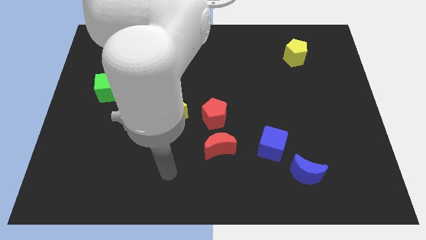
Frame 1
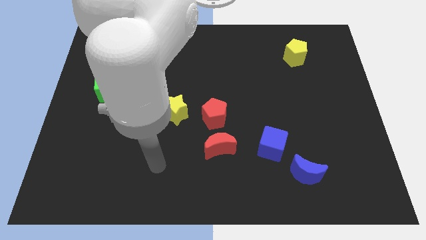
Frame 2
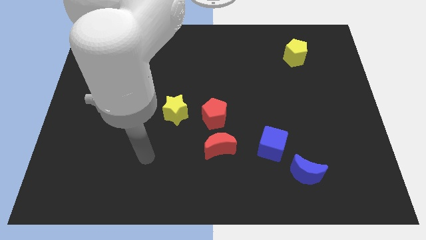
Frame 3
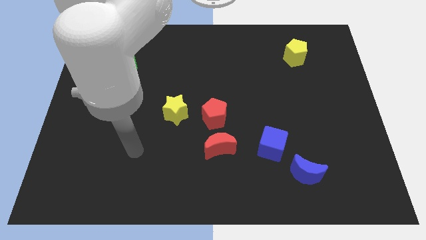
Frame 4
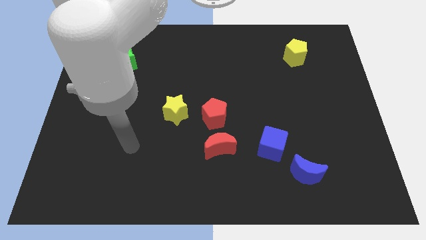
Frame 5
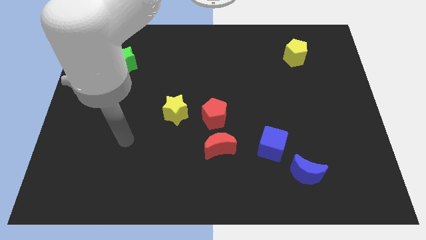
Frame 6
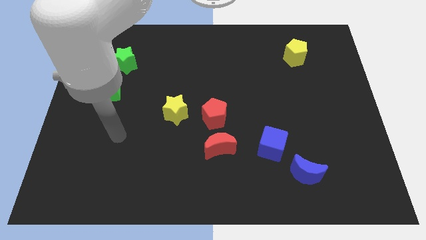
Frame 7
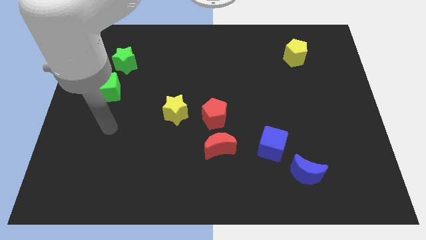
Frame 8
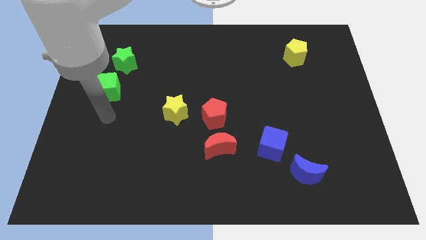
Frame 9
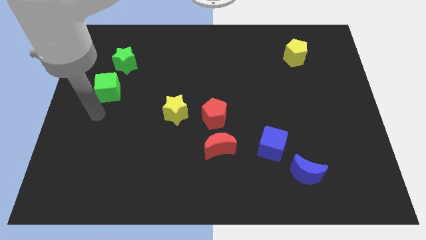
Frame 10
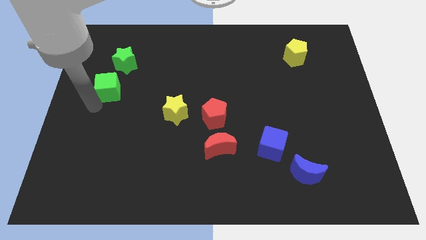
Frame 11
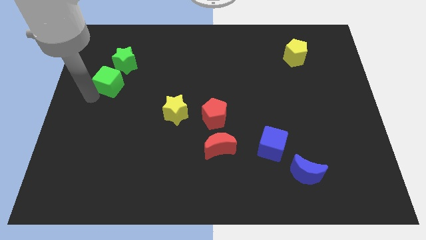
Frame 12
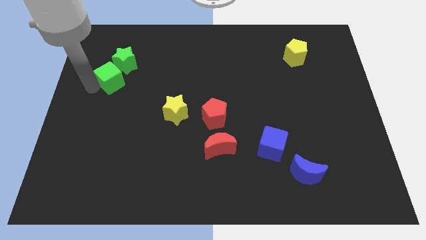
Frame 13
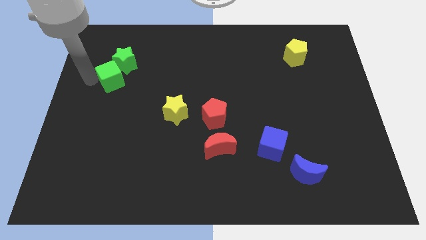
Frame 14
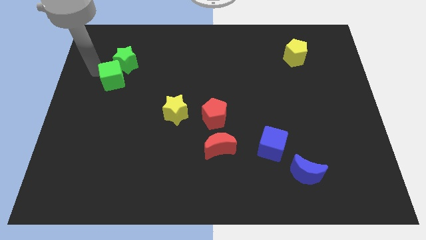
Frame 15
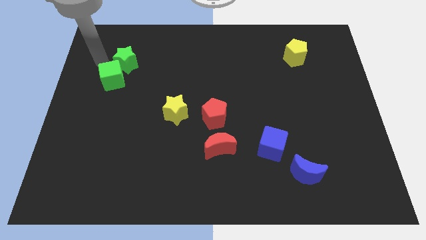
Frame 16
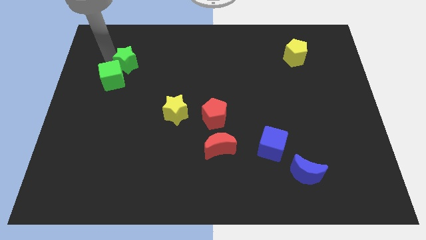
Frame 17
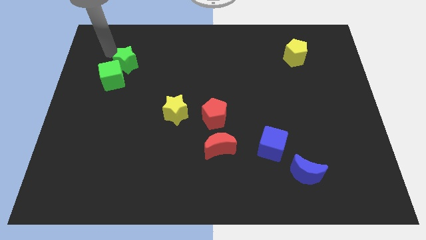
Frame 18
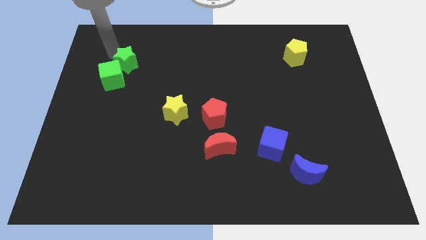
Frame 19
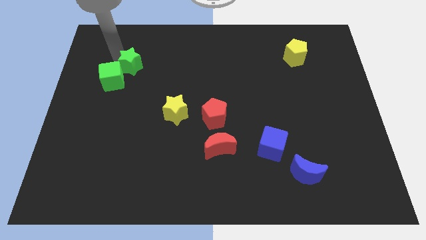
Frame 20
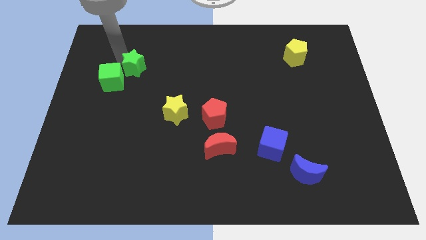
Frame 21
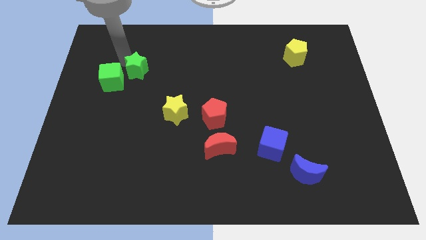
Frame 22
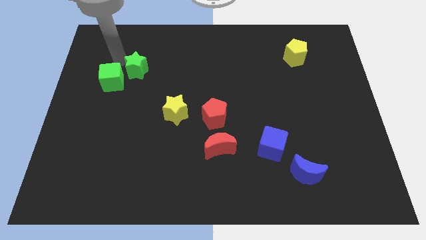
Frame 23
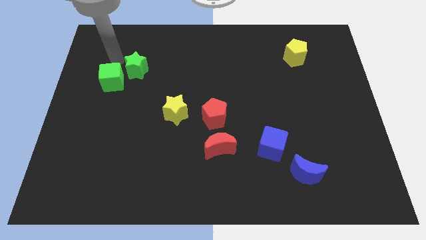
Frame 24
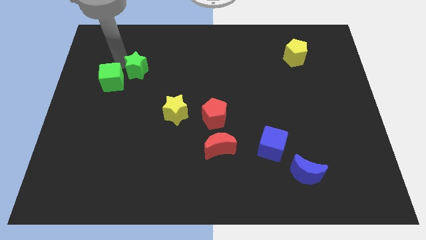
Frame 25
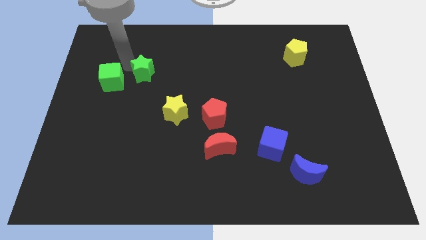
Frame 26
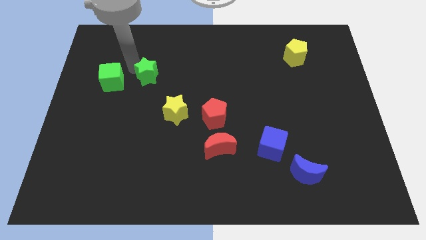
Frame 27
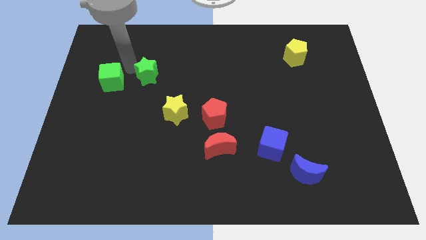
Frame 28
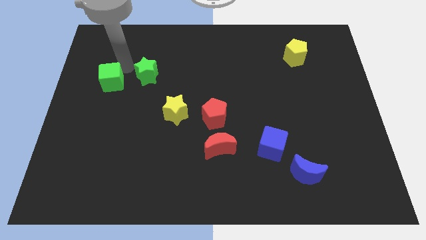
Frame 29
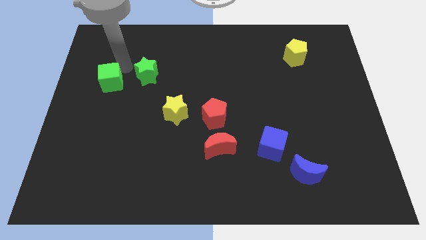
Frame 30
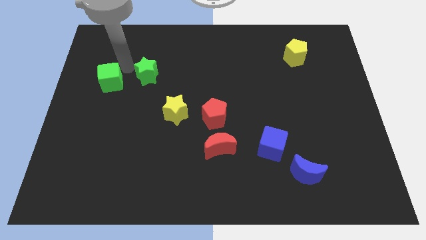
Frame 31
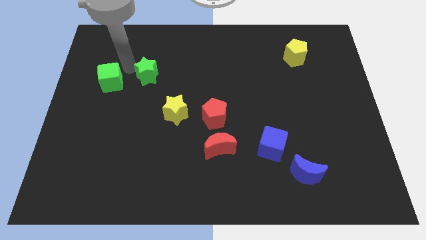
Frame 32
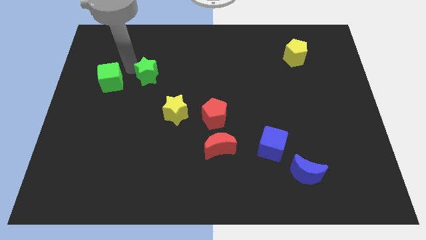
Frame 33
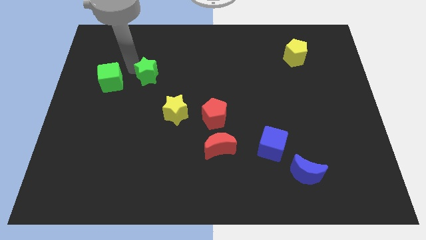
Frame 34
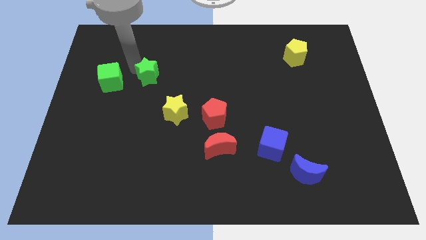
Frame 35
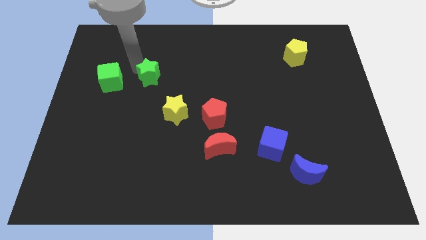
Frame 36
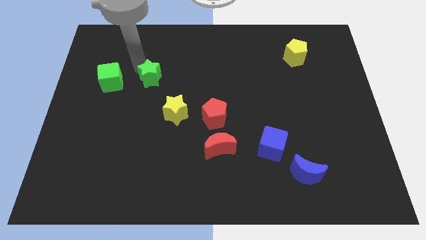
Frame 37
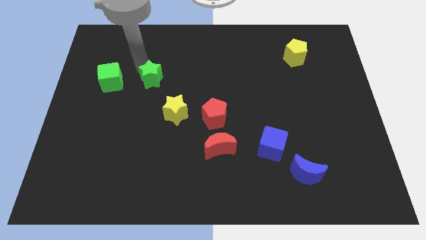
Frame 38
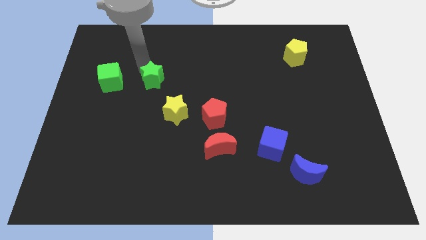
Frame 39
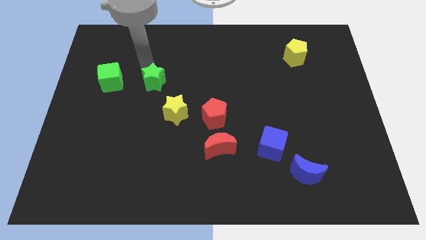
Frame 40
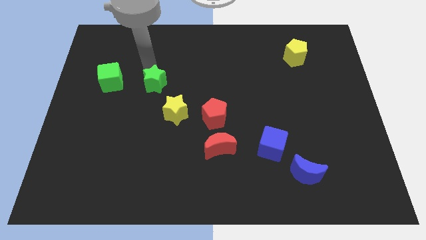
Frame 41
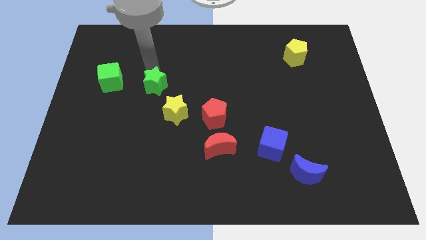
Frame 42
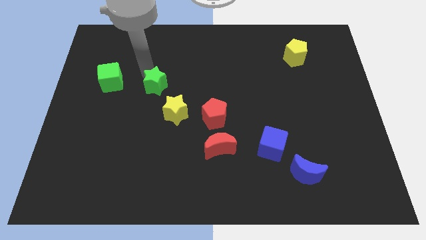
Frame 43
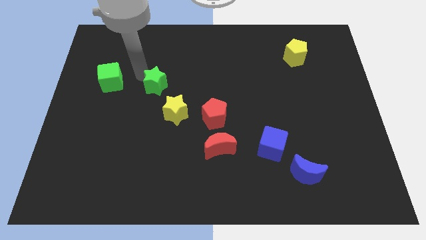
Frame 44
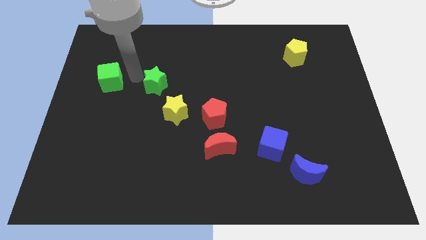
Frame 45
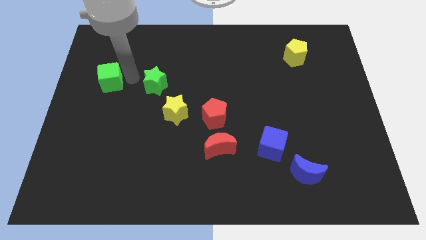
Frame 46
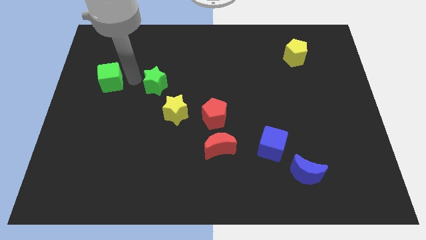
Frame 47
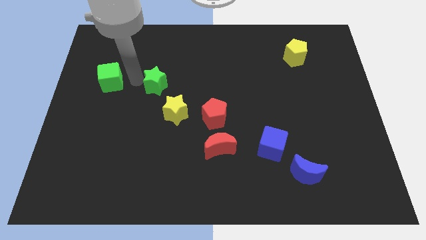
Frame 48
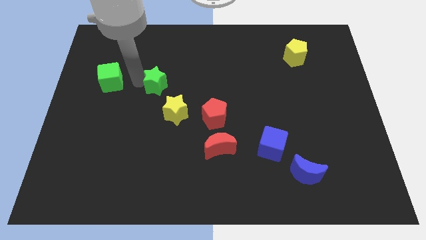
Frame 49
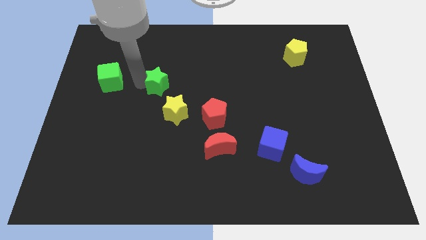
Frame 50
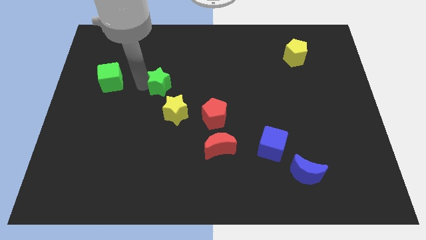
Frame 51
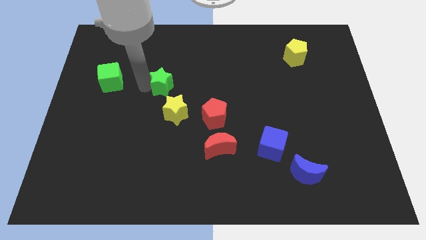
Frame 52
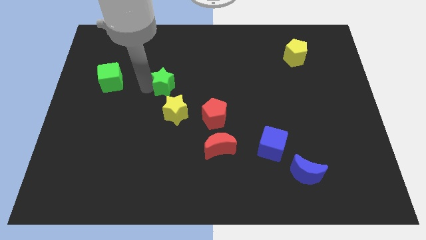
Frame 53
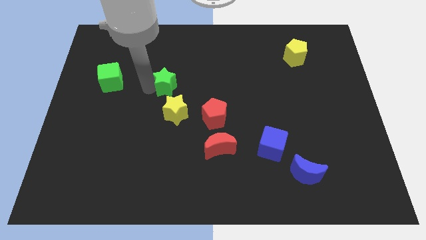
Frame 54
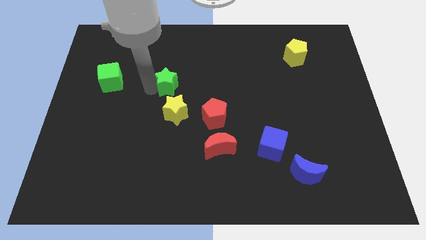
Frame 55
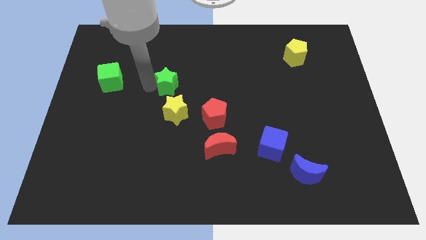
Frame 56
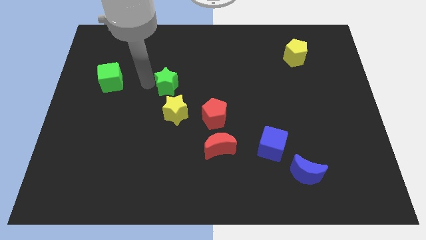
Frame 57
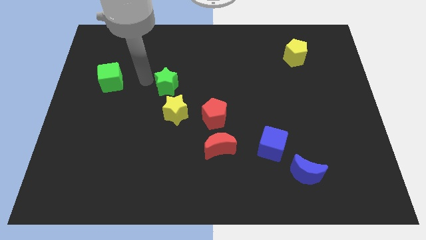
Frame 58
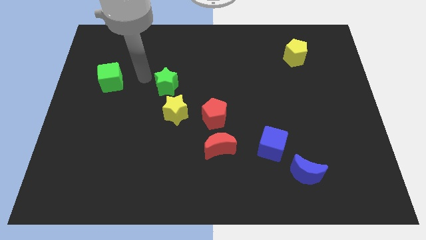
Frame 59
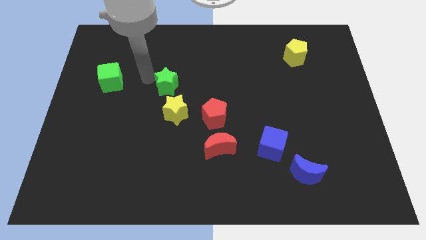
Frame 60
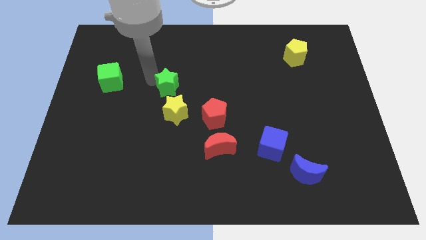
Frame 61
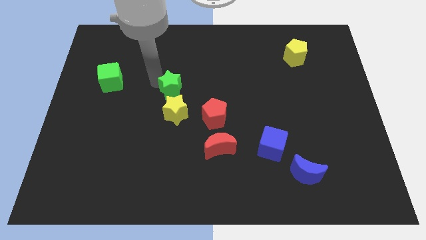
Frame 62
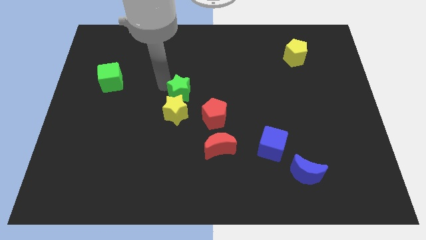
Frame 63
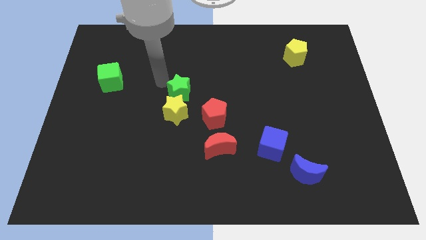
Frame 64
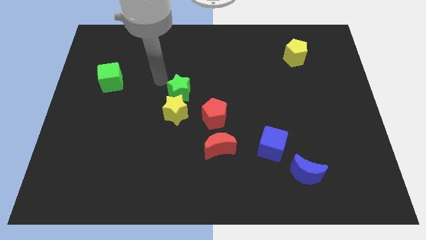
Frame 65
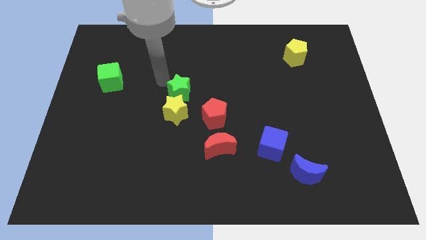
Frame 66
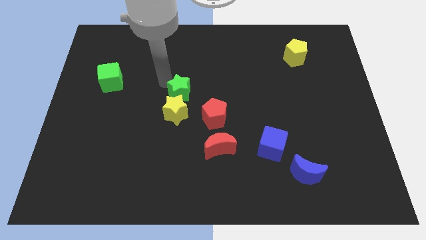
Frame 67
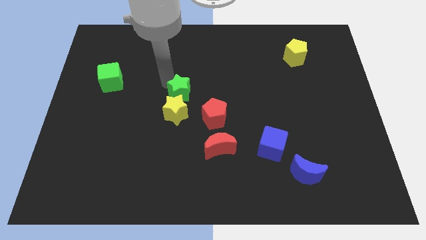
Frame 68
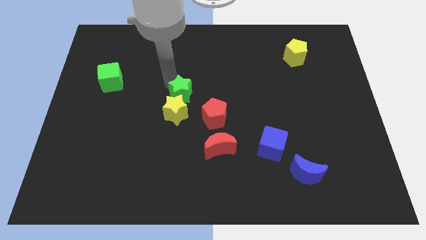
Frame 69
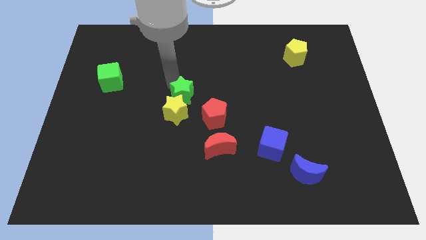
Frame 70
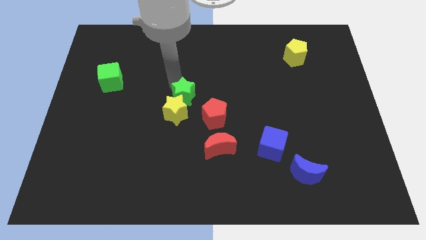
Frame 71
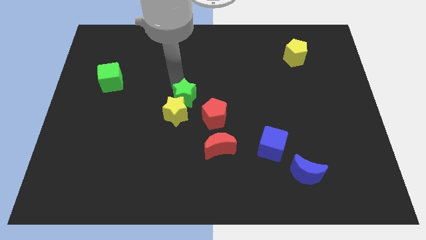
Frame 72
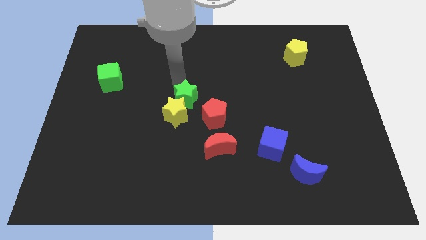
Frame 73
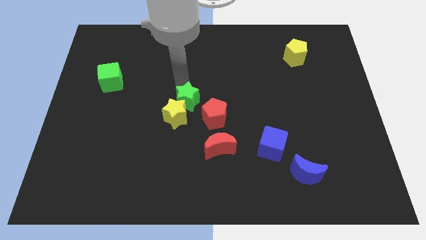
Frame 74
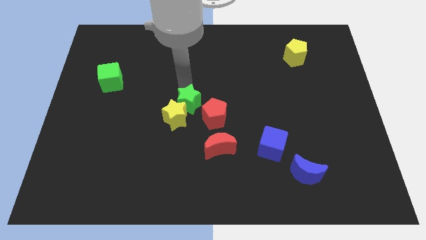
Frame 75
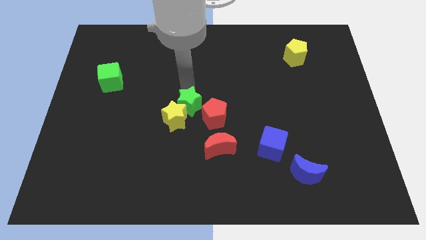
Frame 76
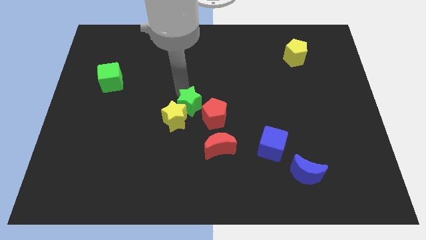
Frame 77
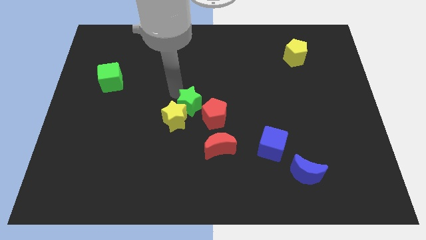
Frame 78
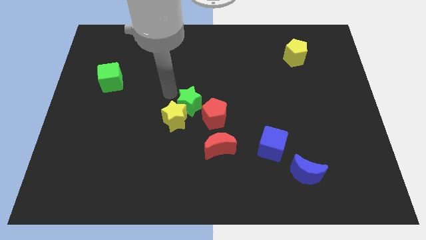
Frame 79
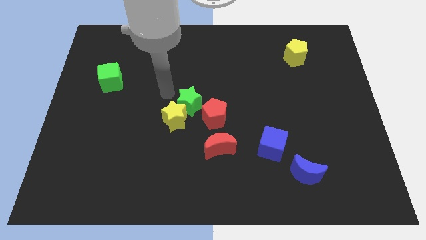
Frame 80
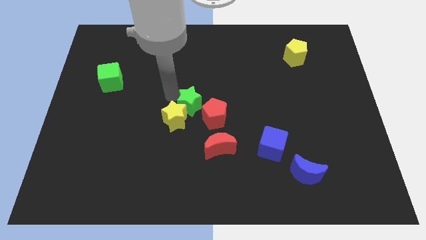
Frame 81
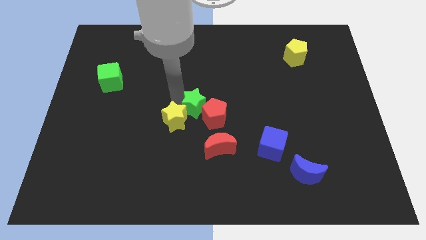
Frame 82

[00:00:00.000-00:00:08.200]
put the green star to the red pentagon
